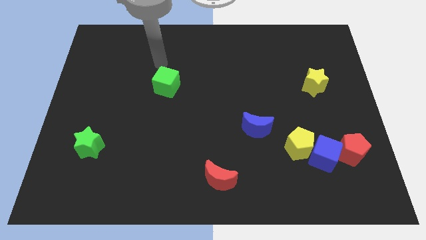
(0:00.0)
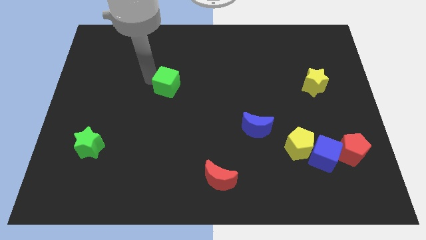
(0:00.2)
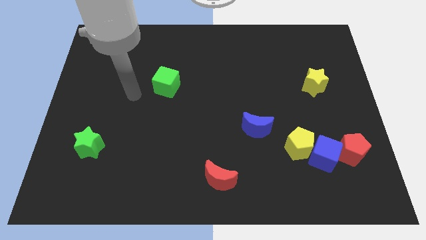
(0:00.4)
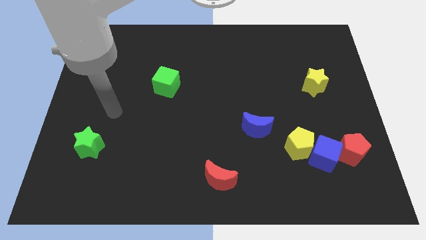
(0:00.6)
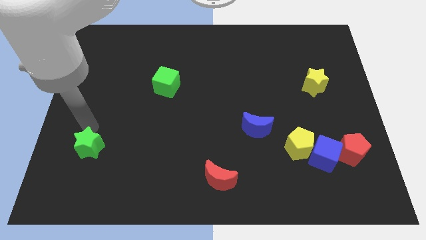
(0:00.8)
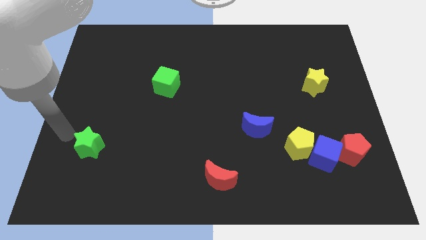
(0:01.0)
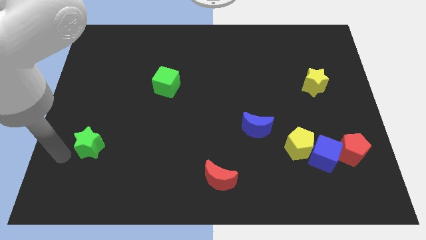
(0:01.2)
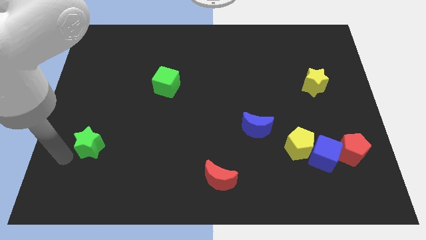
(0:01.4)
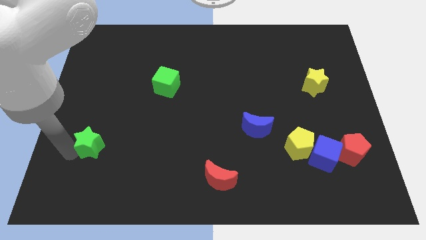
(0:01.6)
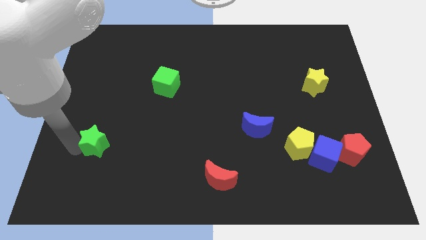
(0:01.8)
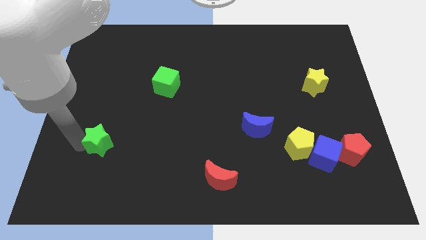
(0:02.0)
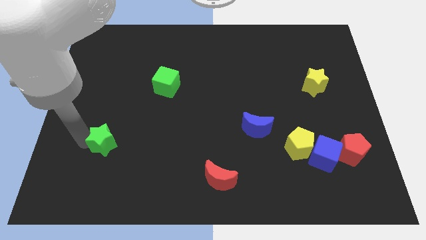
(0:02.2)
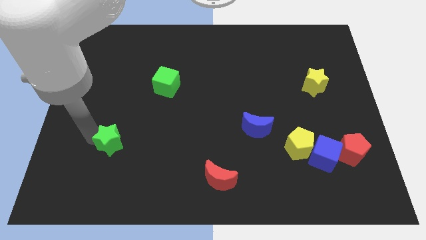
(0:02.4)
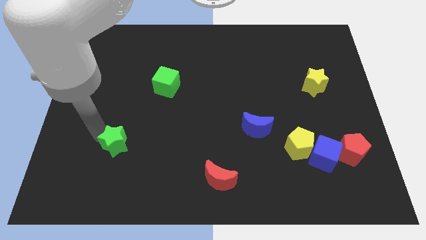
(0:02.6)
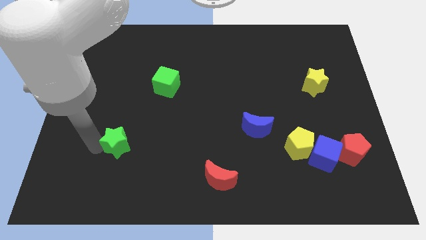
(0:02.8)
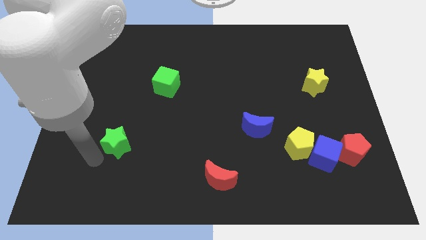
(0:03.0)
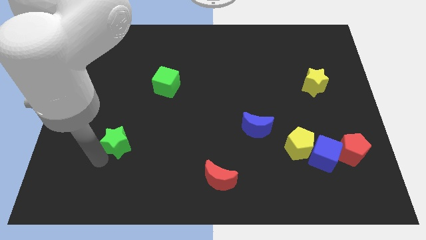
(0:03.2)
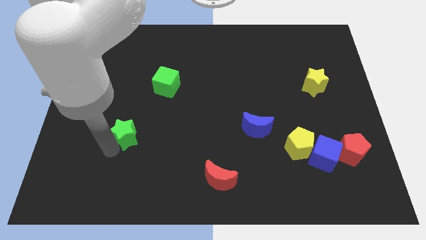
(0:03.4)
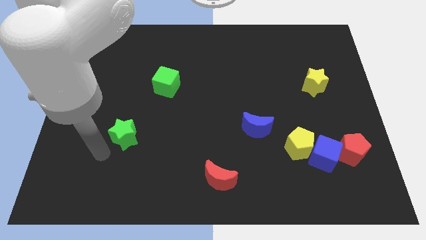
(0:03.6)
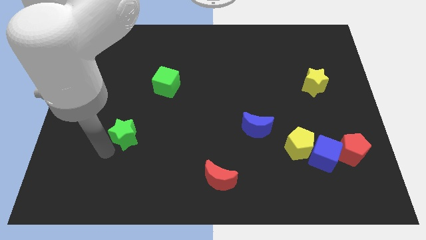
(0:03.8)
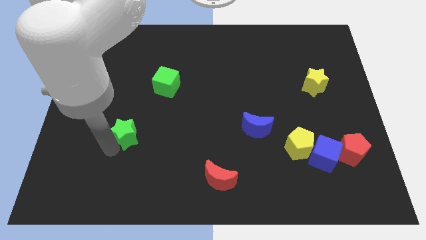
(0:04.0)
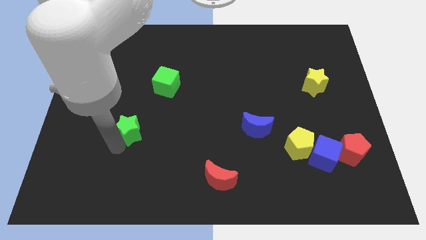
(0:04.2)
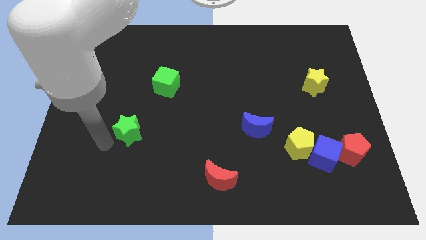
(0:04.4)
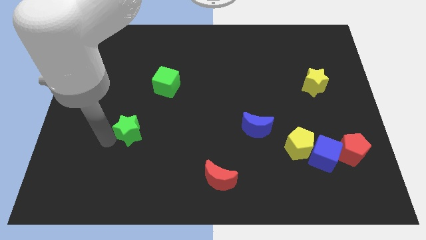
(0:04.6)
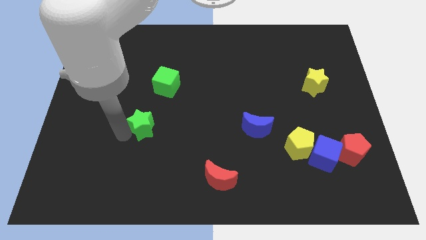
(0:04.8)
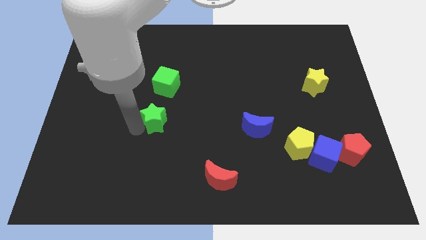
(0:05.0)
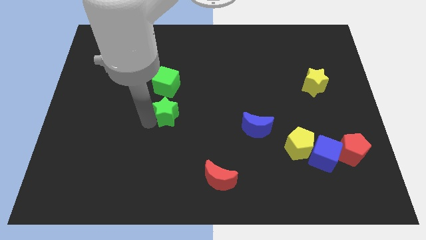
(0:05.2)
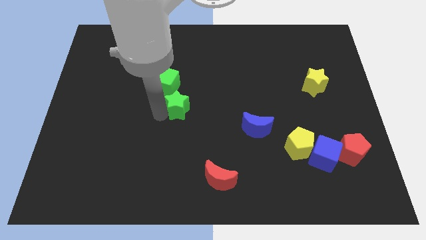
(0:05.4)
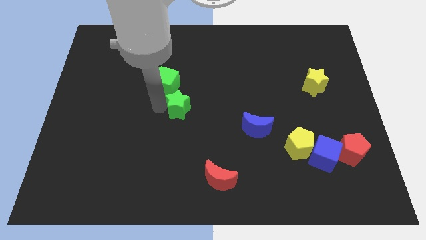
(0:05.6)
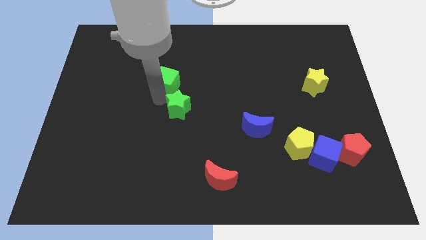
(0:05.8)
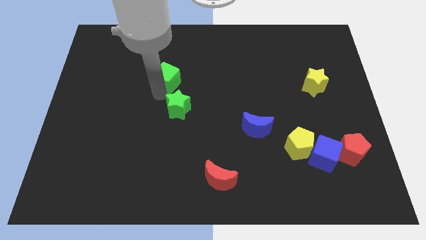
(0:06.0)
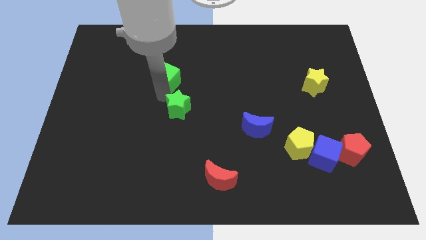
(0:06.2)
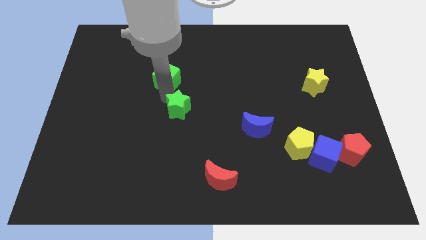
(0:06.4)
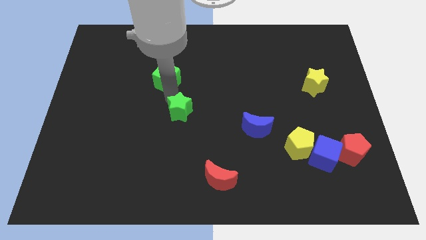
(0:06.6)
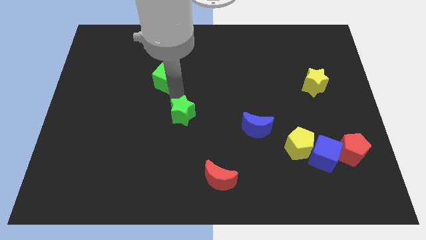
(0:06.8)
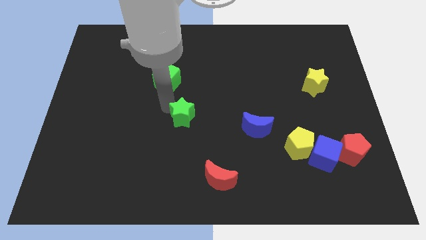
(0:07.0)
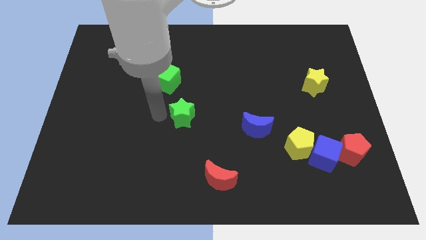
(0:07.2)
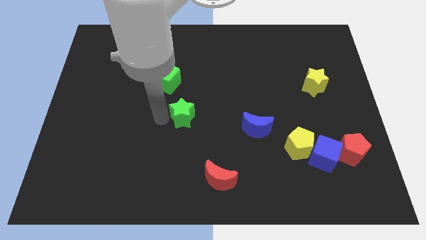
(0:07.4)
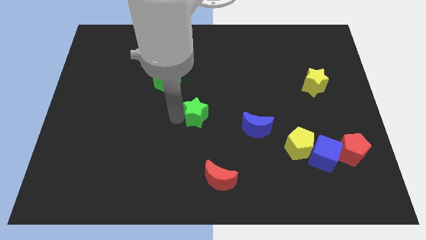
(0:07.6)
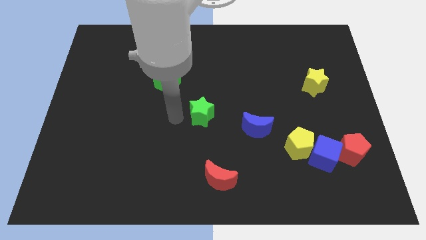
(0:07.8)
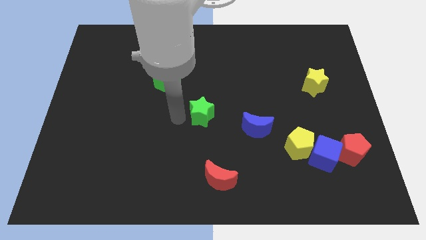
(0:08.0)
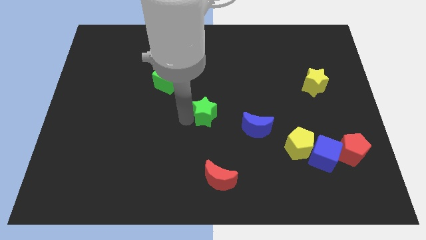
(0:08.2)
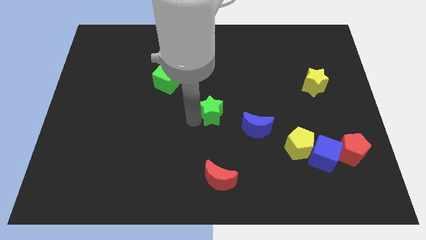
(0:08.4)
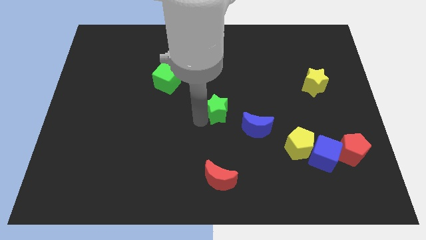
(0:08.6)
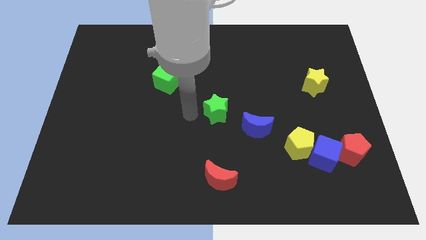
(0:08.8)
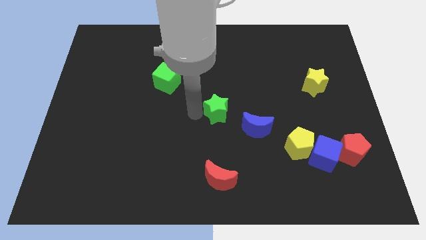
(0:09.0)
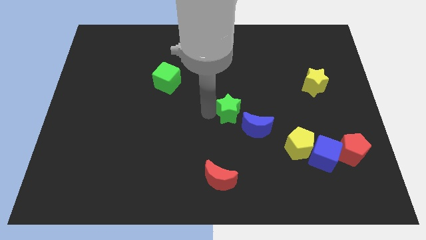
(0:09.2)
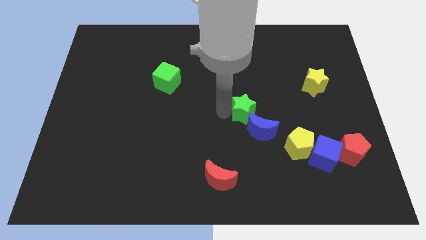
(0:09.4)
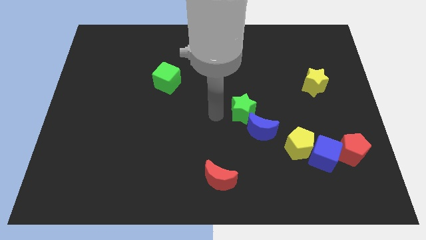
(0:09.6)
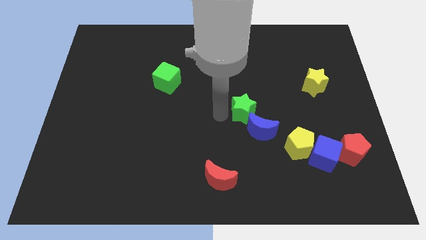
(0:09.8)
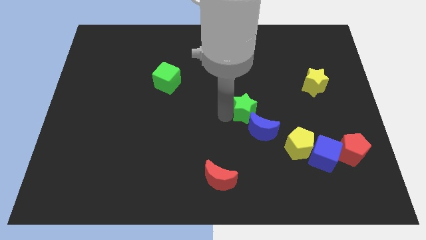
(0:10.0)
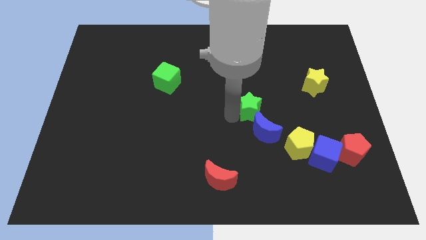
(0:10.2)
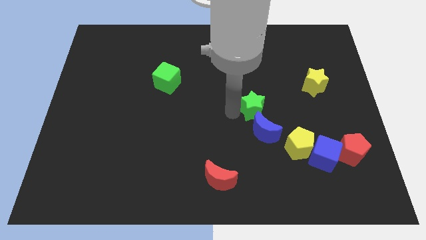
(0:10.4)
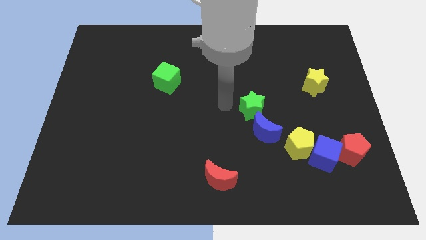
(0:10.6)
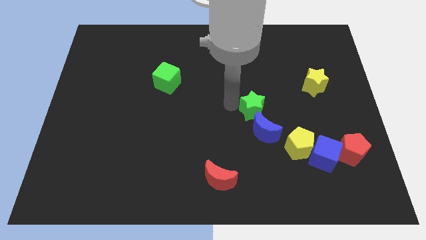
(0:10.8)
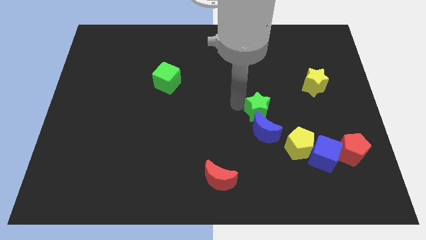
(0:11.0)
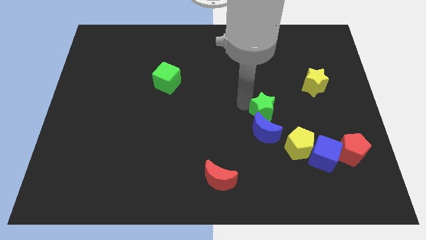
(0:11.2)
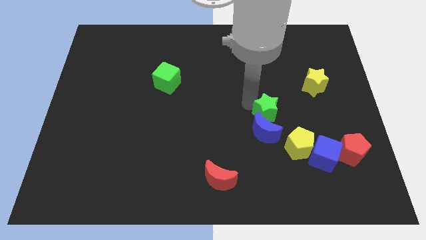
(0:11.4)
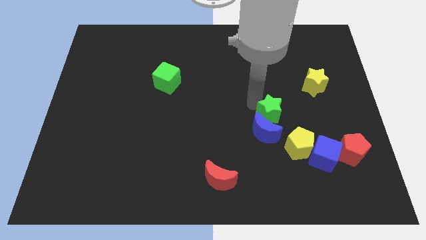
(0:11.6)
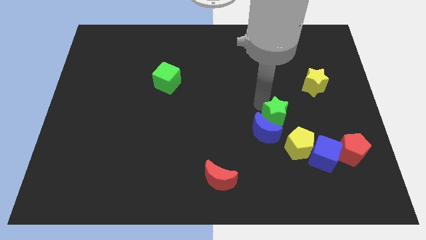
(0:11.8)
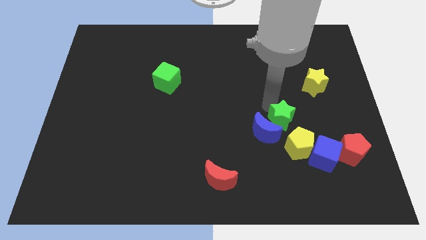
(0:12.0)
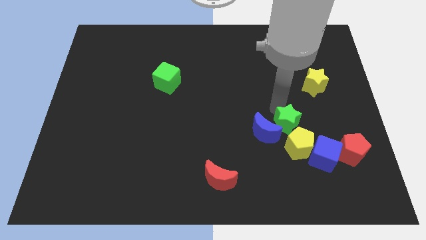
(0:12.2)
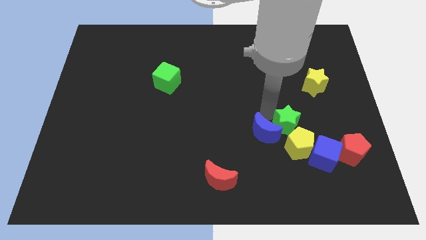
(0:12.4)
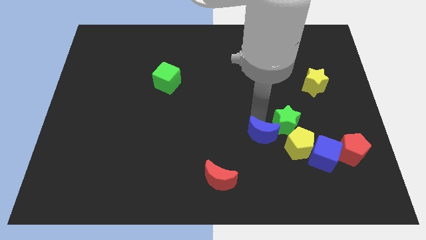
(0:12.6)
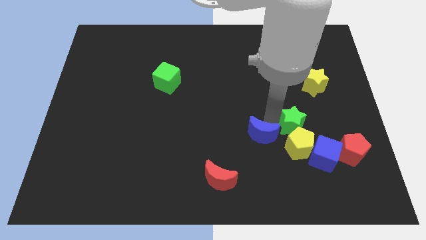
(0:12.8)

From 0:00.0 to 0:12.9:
move the green star to the top right of the yellow pentagon
